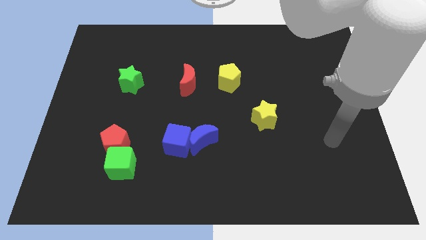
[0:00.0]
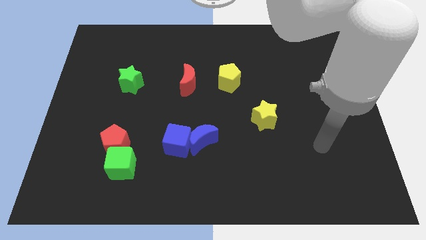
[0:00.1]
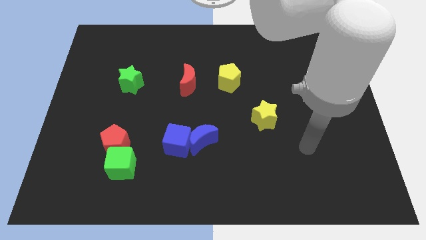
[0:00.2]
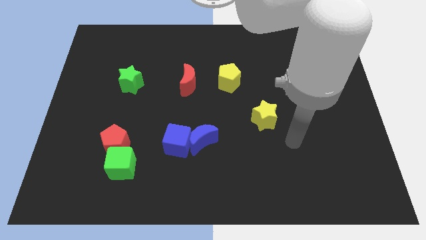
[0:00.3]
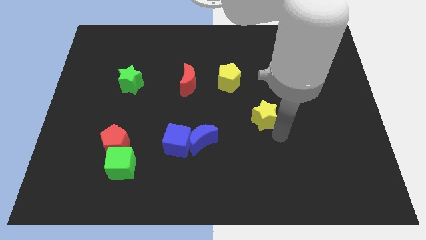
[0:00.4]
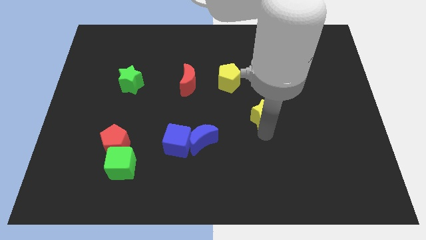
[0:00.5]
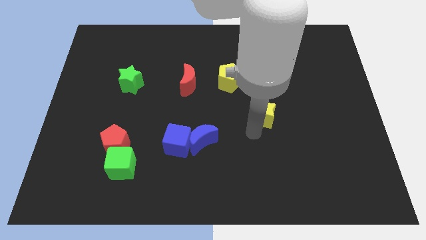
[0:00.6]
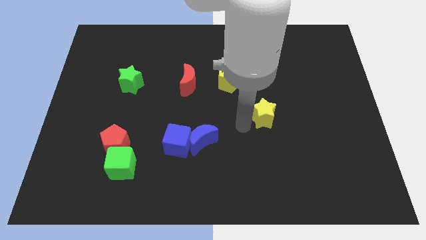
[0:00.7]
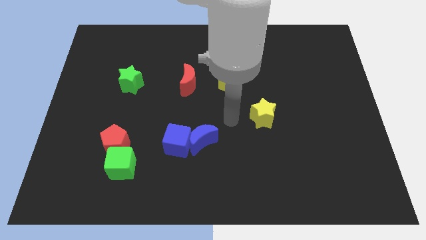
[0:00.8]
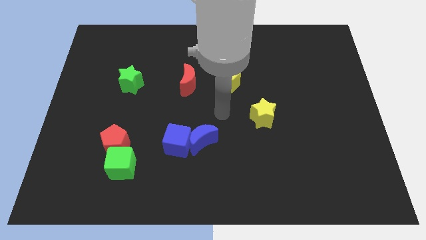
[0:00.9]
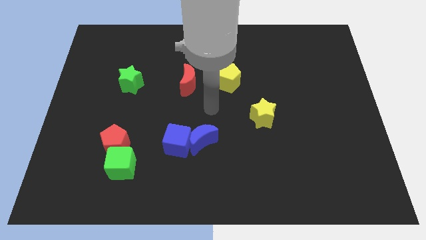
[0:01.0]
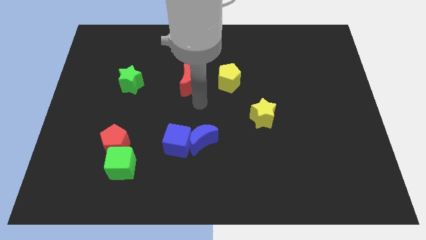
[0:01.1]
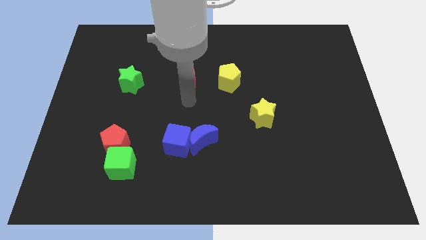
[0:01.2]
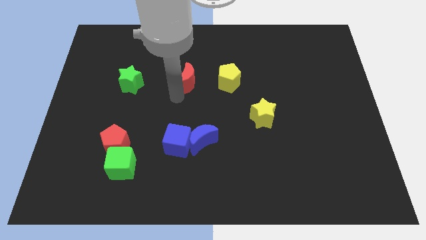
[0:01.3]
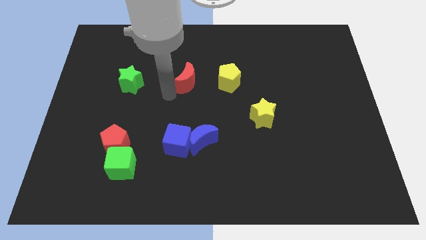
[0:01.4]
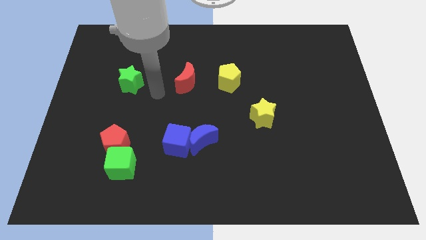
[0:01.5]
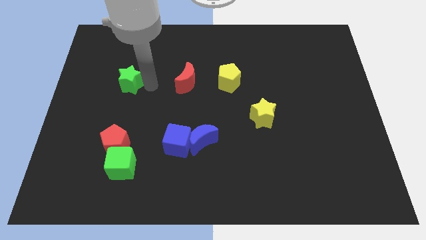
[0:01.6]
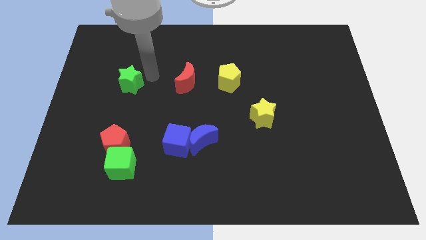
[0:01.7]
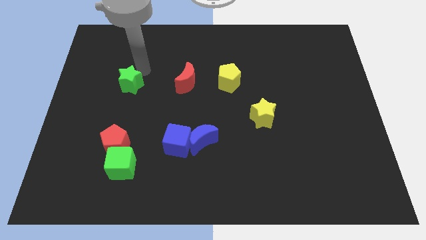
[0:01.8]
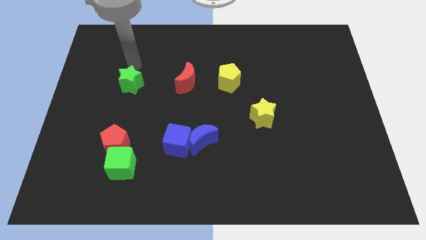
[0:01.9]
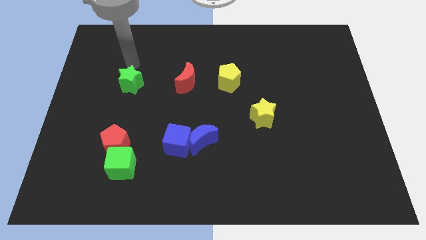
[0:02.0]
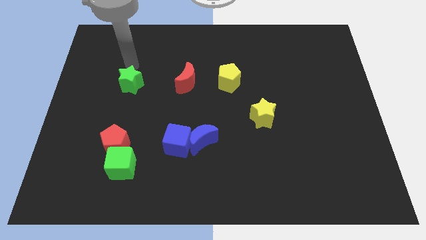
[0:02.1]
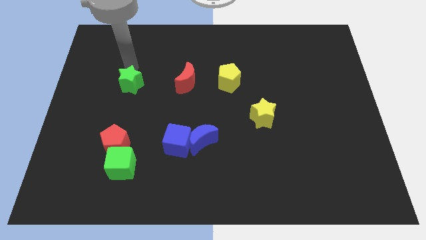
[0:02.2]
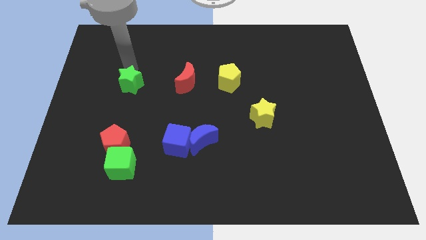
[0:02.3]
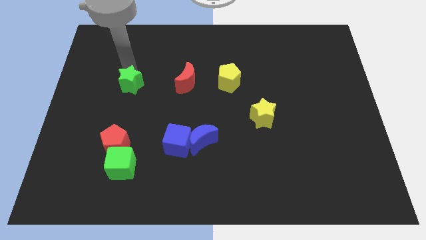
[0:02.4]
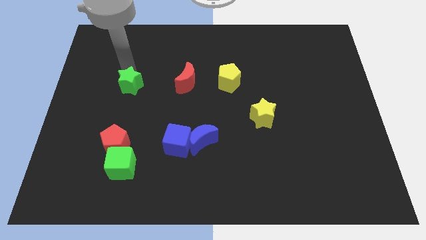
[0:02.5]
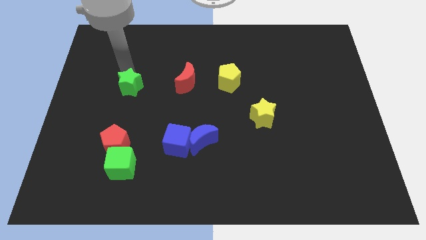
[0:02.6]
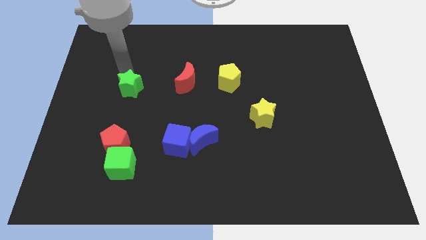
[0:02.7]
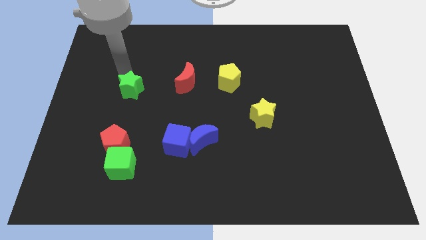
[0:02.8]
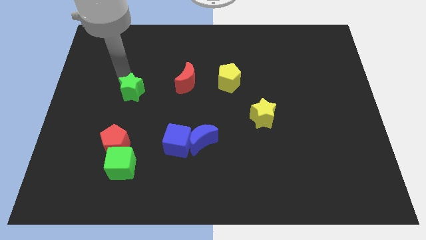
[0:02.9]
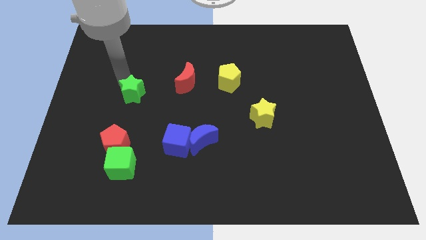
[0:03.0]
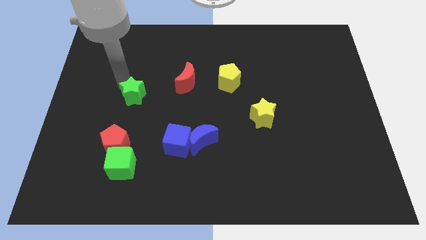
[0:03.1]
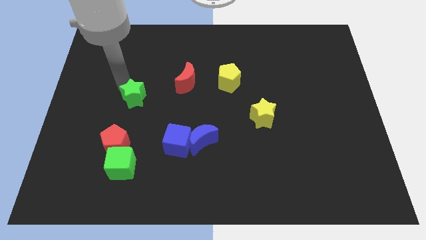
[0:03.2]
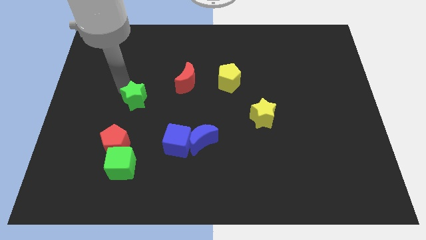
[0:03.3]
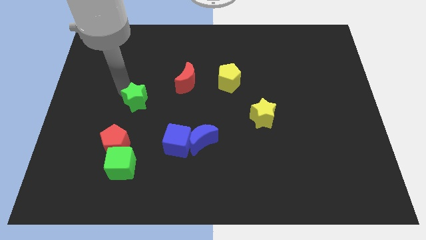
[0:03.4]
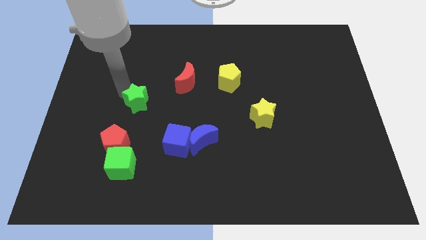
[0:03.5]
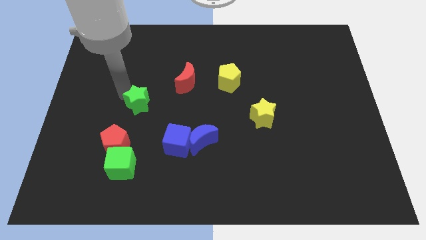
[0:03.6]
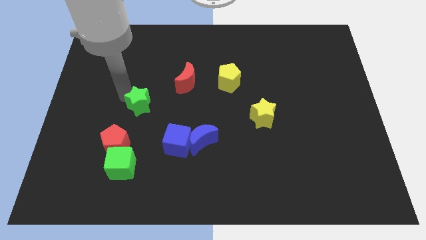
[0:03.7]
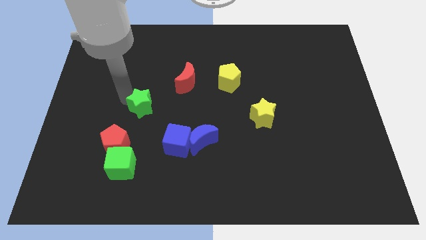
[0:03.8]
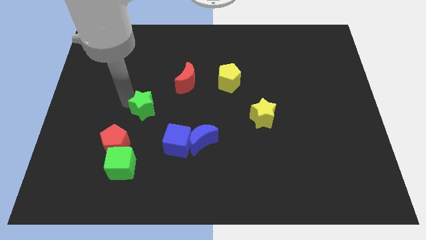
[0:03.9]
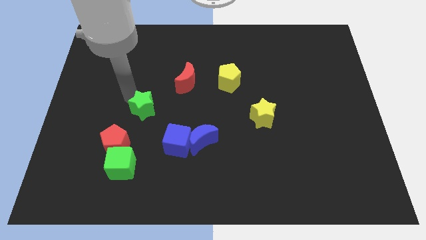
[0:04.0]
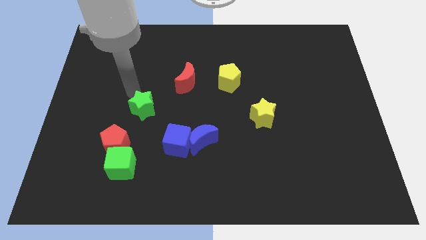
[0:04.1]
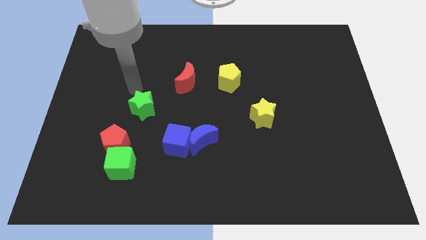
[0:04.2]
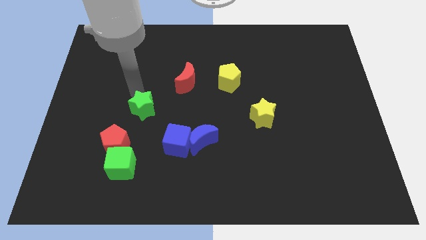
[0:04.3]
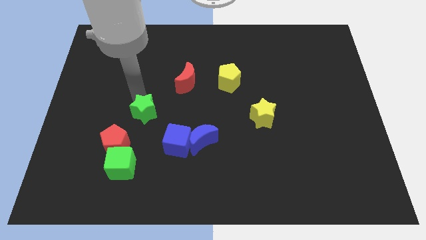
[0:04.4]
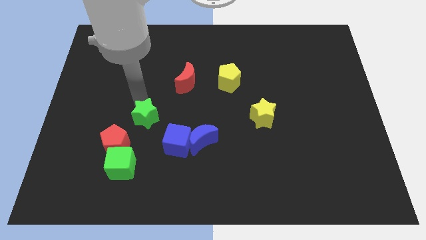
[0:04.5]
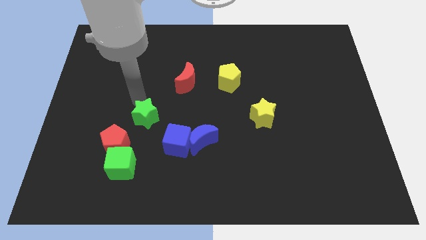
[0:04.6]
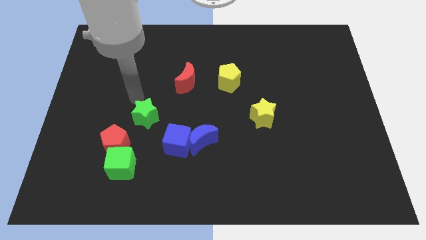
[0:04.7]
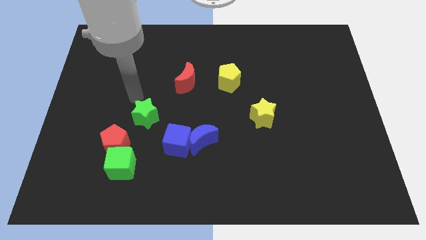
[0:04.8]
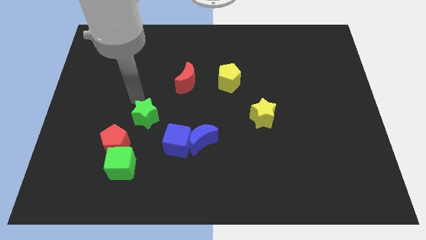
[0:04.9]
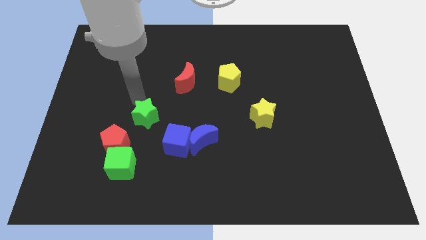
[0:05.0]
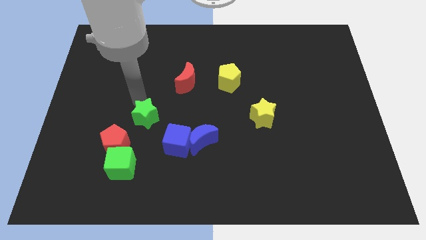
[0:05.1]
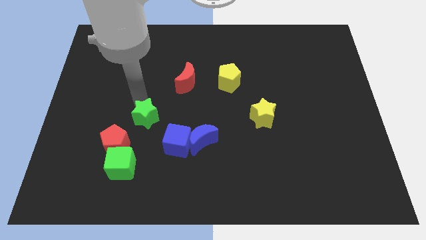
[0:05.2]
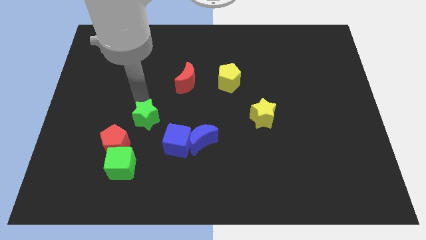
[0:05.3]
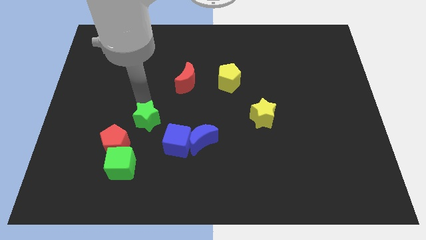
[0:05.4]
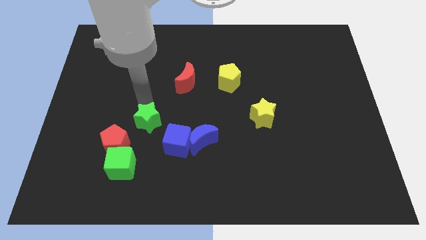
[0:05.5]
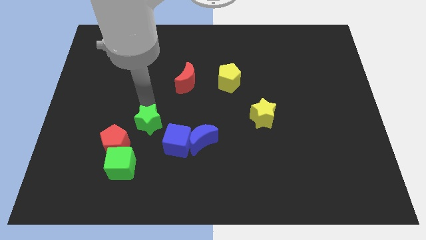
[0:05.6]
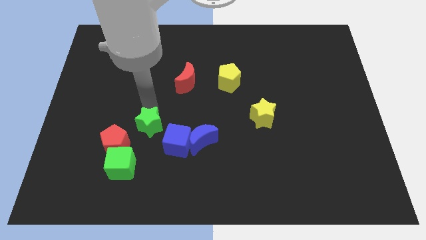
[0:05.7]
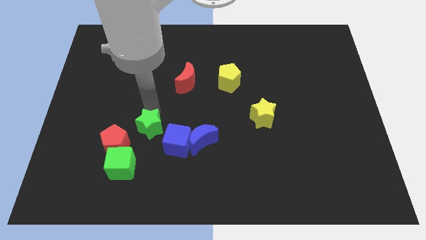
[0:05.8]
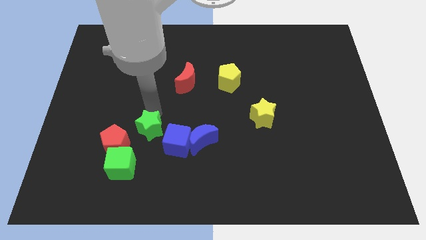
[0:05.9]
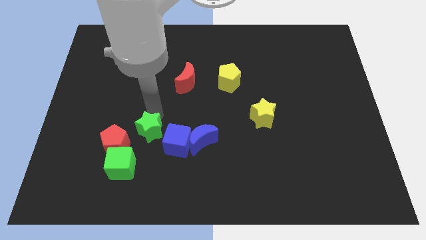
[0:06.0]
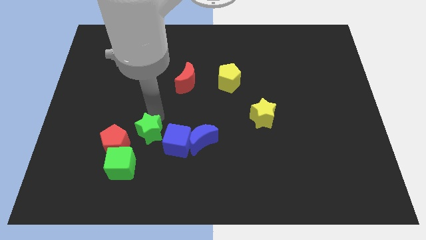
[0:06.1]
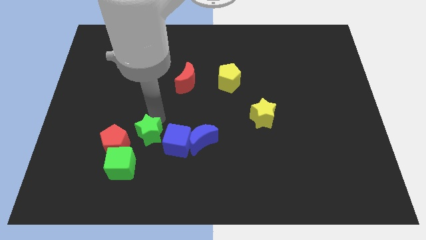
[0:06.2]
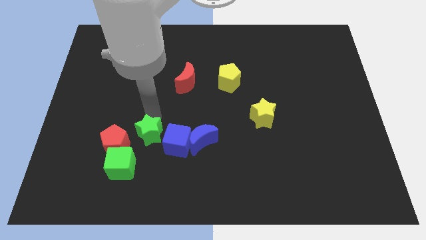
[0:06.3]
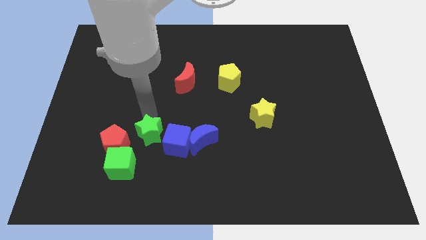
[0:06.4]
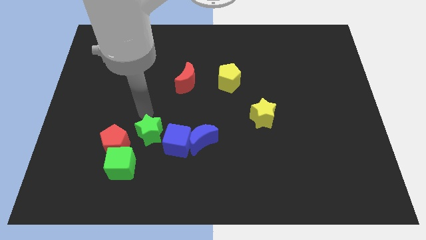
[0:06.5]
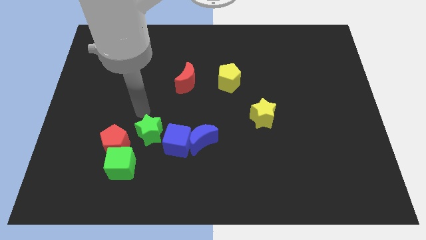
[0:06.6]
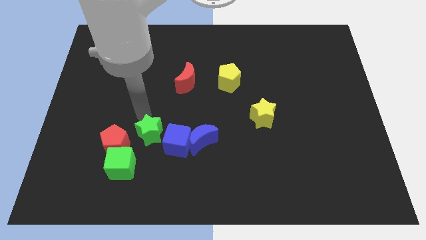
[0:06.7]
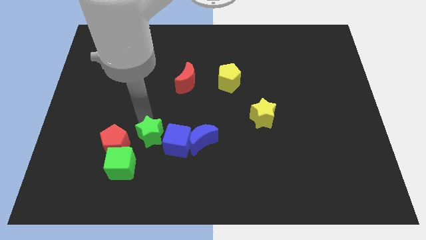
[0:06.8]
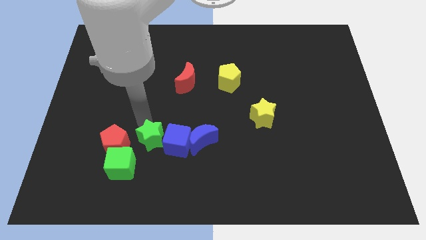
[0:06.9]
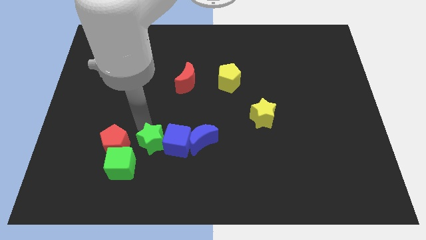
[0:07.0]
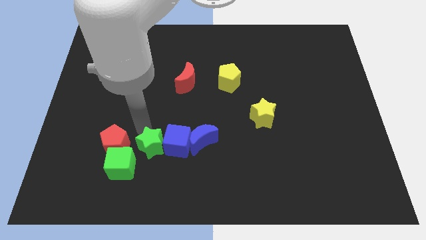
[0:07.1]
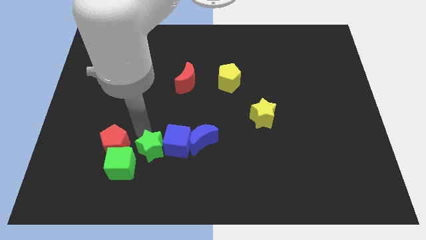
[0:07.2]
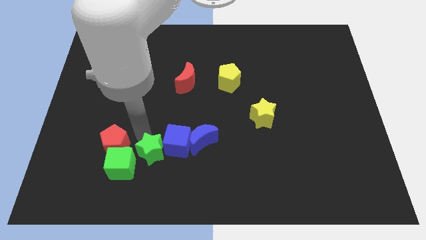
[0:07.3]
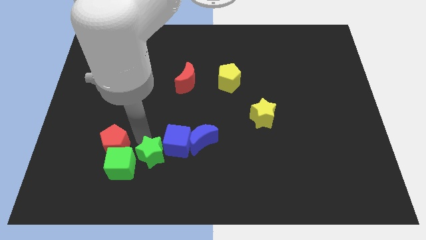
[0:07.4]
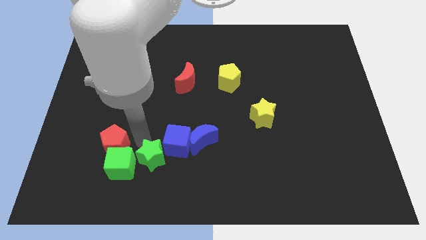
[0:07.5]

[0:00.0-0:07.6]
put the green star to the green cube
